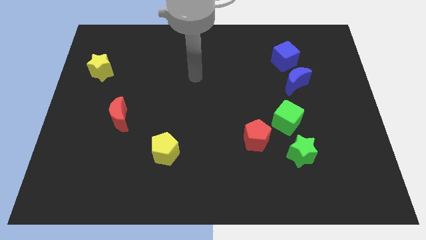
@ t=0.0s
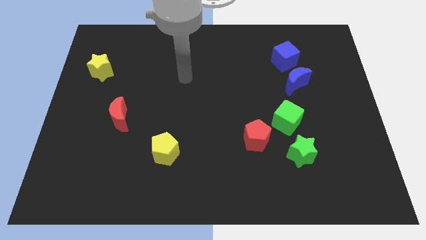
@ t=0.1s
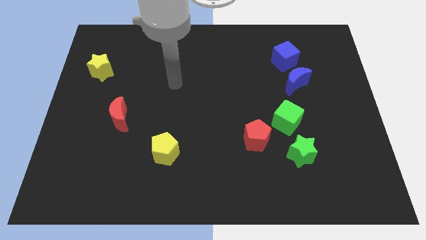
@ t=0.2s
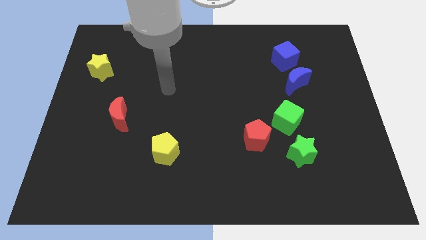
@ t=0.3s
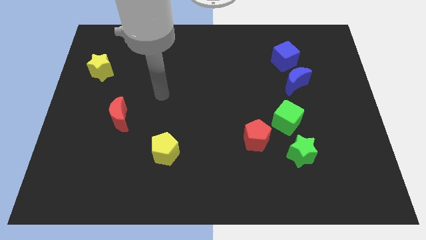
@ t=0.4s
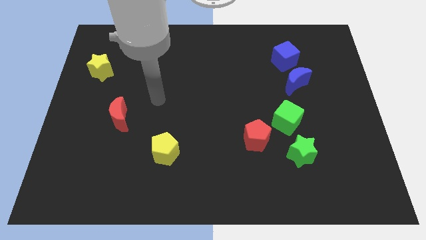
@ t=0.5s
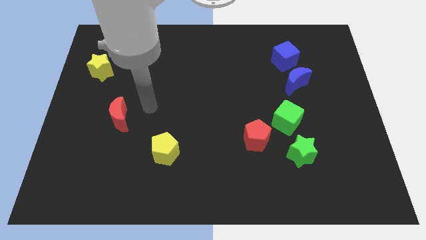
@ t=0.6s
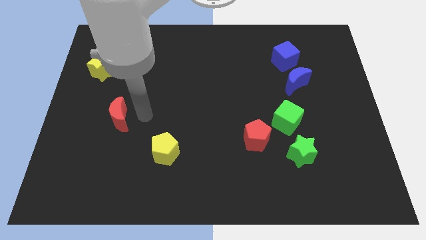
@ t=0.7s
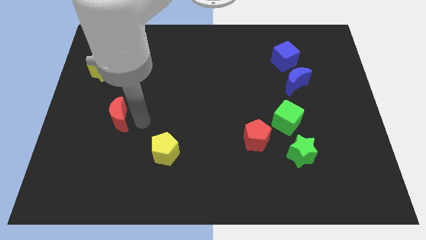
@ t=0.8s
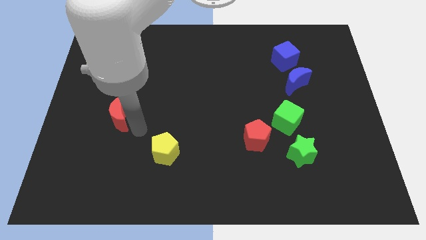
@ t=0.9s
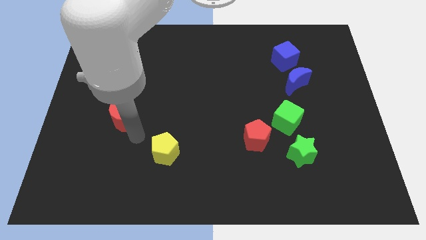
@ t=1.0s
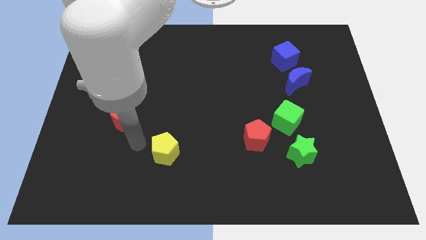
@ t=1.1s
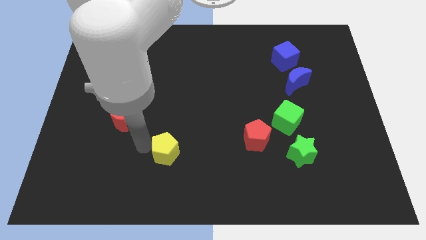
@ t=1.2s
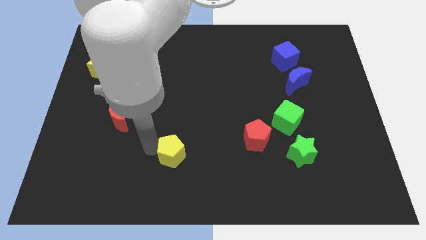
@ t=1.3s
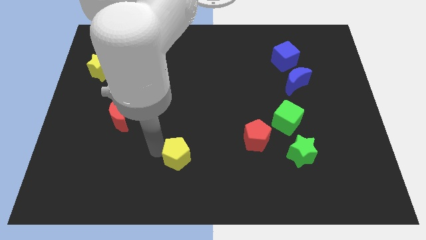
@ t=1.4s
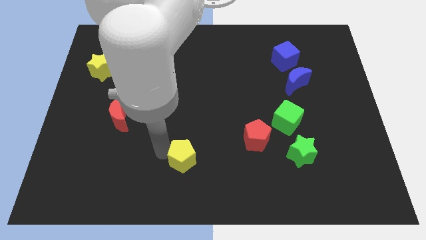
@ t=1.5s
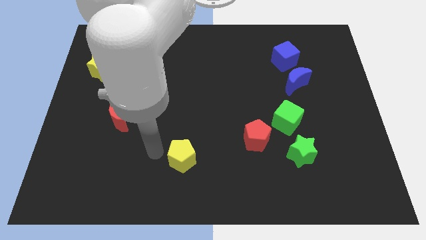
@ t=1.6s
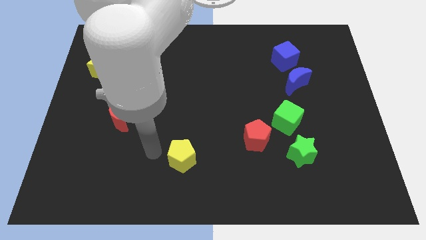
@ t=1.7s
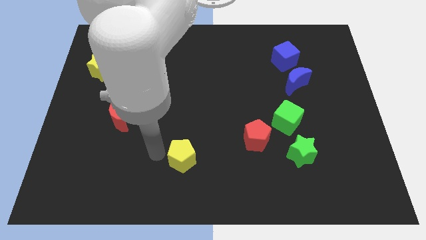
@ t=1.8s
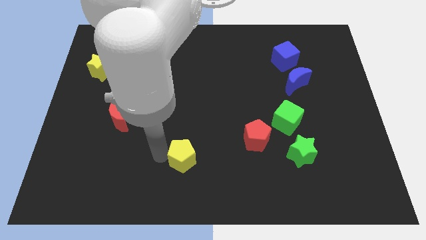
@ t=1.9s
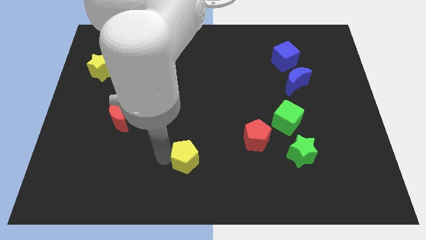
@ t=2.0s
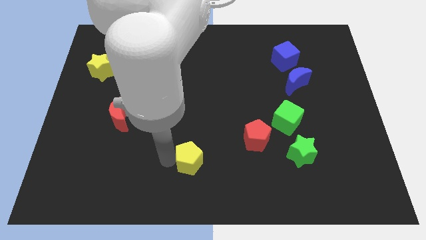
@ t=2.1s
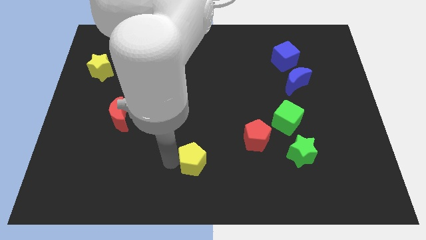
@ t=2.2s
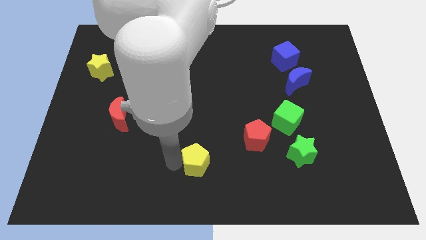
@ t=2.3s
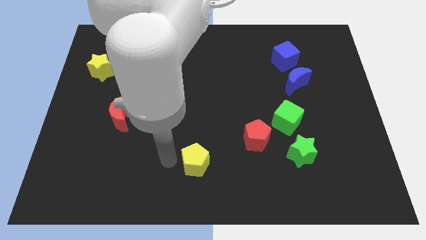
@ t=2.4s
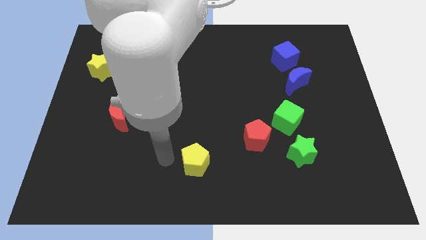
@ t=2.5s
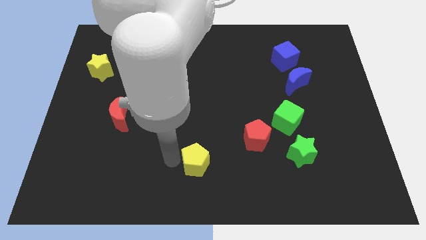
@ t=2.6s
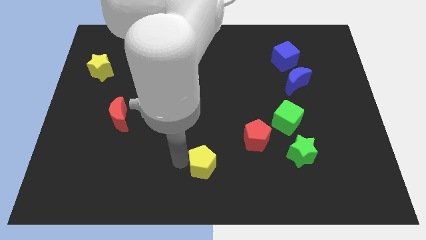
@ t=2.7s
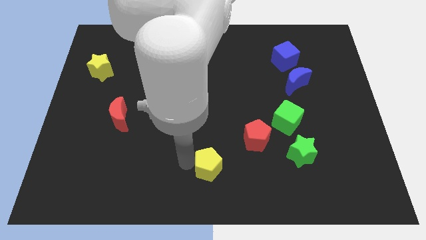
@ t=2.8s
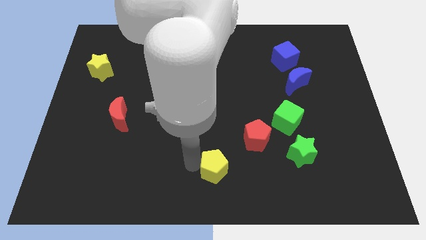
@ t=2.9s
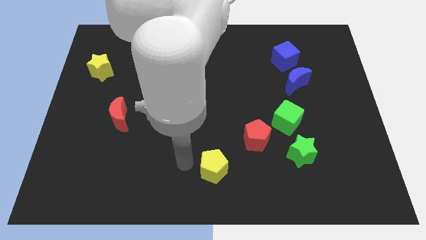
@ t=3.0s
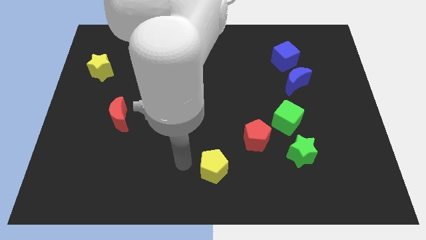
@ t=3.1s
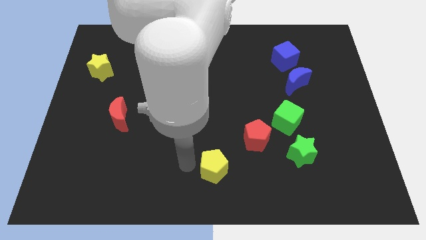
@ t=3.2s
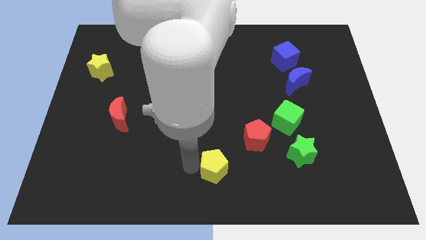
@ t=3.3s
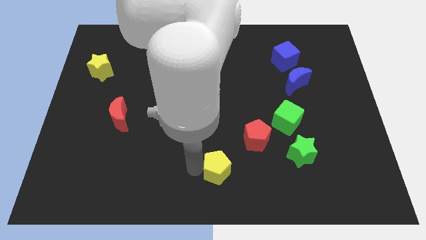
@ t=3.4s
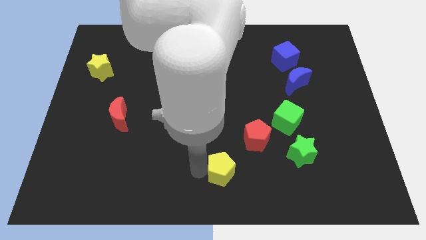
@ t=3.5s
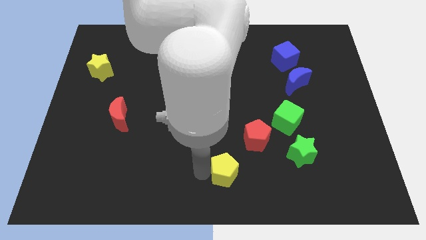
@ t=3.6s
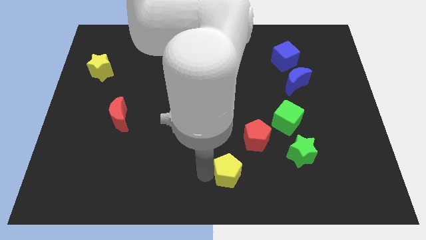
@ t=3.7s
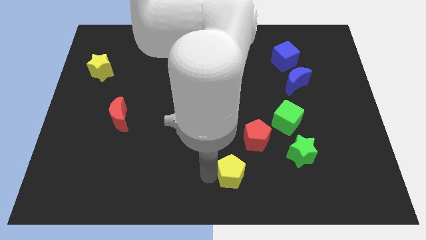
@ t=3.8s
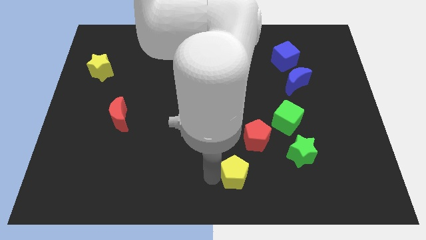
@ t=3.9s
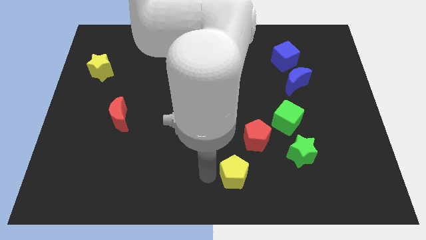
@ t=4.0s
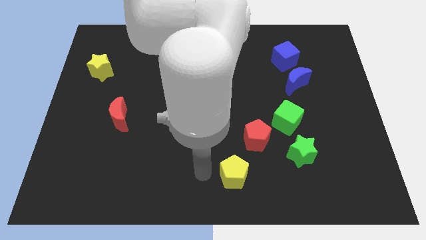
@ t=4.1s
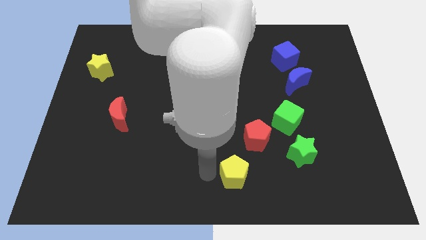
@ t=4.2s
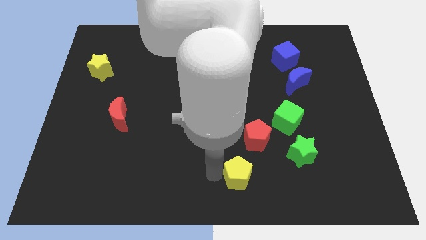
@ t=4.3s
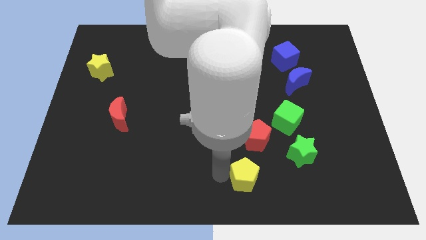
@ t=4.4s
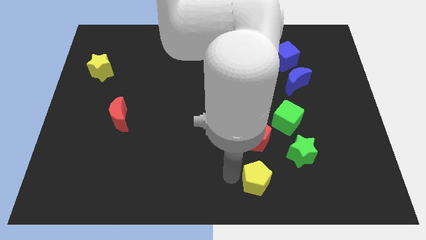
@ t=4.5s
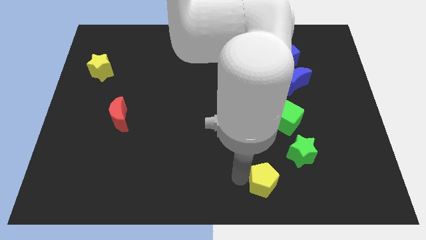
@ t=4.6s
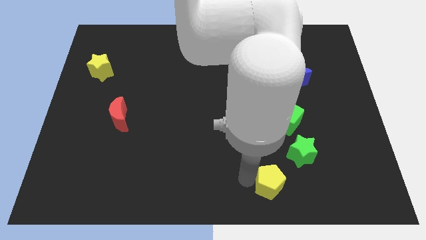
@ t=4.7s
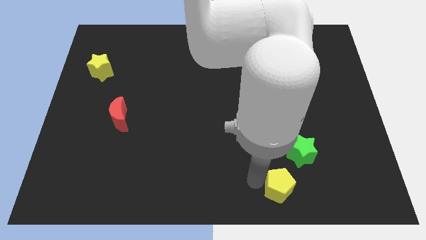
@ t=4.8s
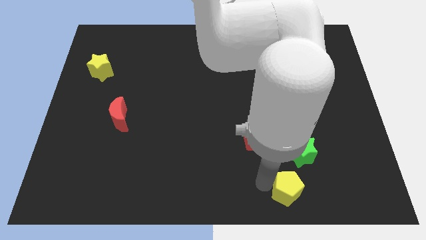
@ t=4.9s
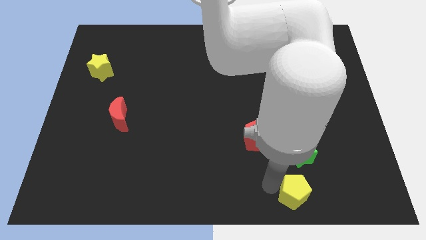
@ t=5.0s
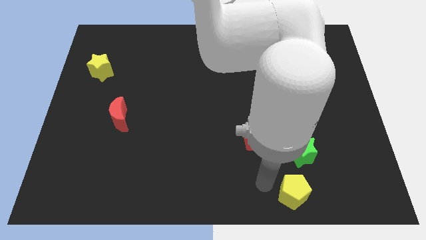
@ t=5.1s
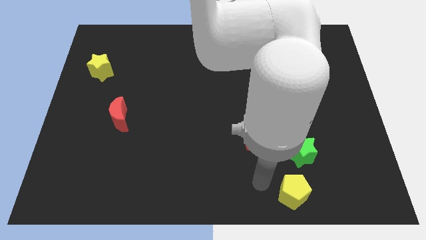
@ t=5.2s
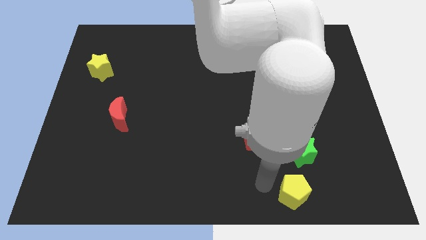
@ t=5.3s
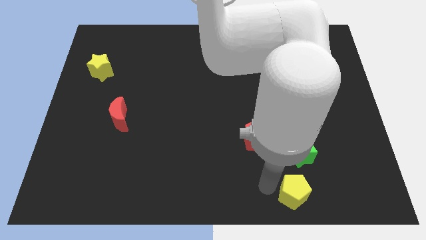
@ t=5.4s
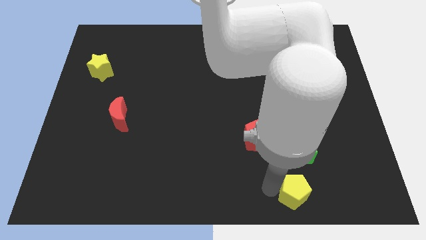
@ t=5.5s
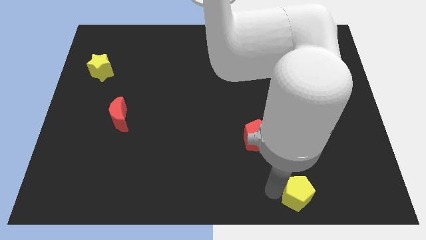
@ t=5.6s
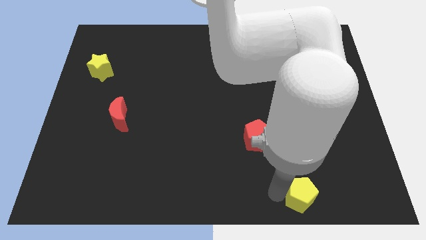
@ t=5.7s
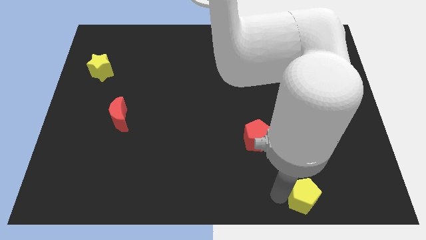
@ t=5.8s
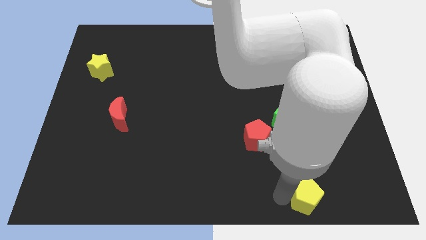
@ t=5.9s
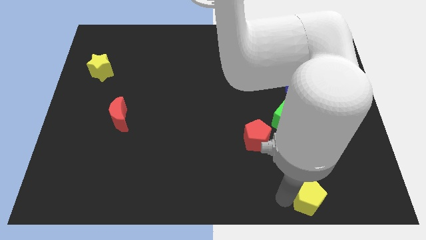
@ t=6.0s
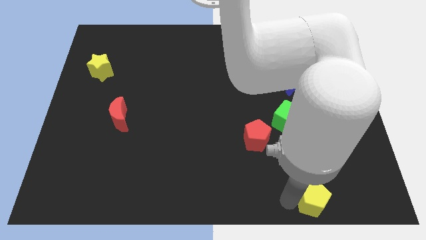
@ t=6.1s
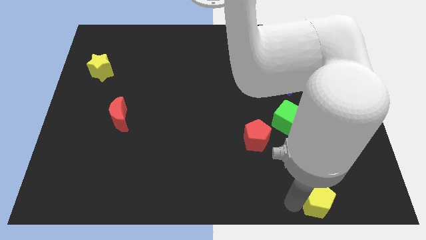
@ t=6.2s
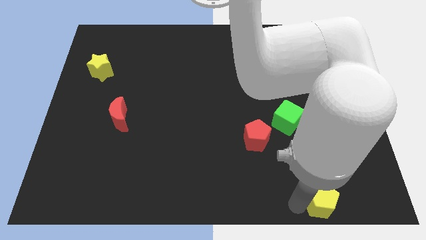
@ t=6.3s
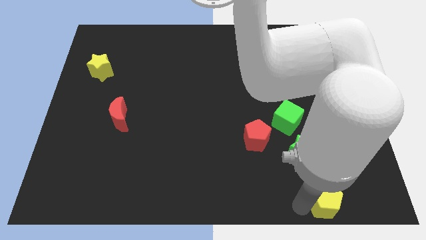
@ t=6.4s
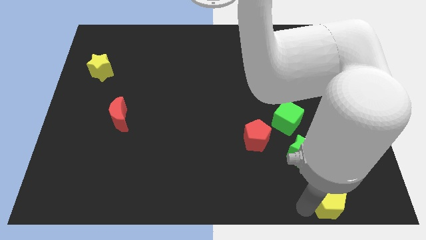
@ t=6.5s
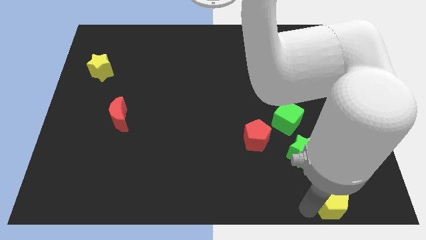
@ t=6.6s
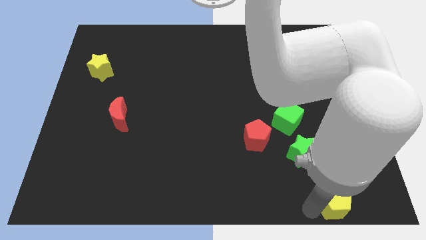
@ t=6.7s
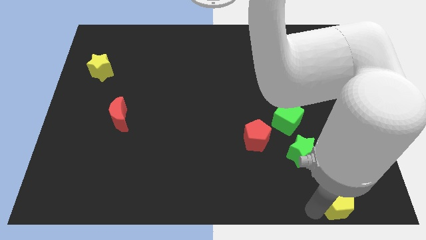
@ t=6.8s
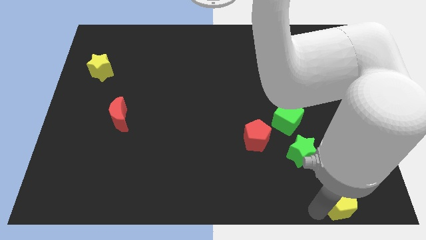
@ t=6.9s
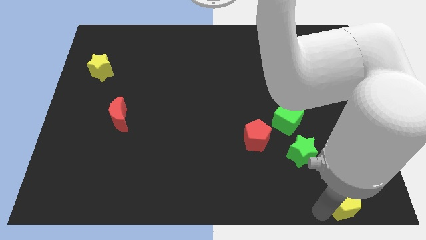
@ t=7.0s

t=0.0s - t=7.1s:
put the yellow pentagon to the bottom right of the board
